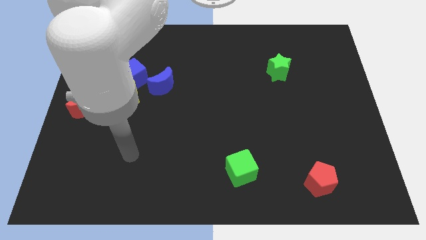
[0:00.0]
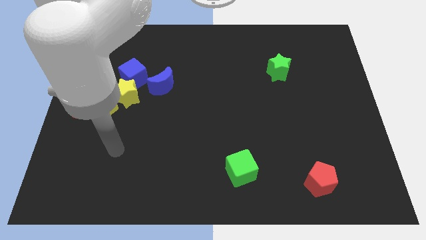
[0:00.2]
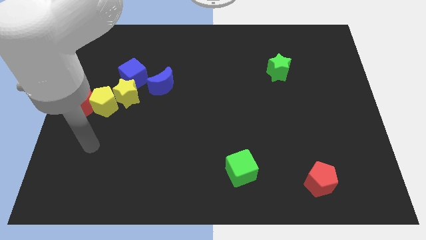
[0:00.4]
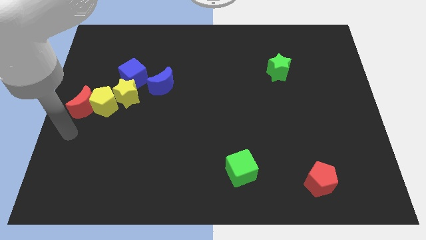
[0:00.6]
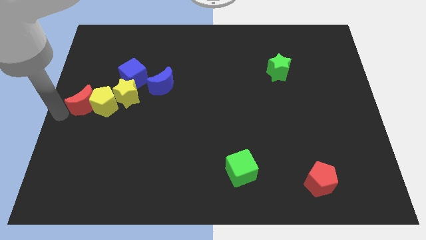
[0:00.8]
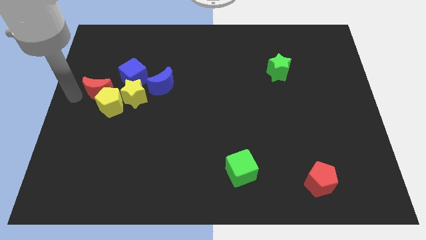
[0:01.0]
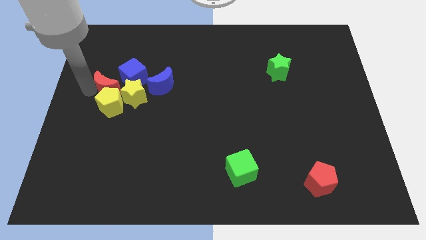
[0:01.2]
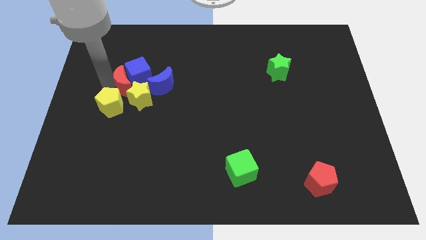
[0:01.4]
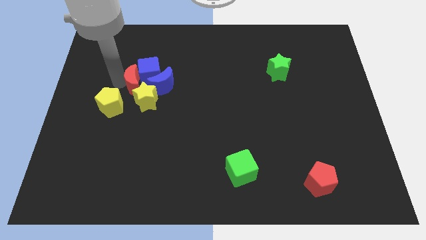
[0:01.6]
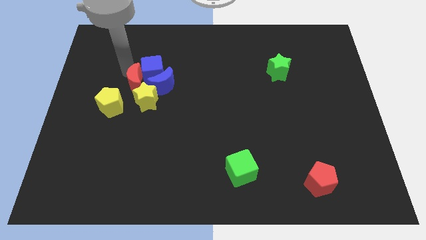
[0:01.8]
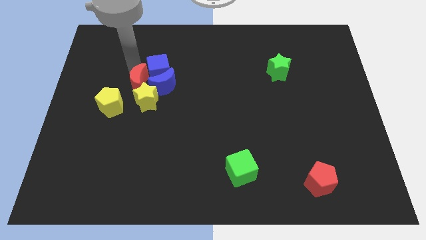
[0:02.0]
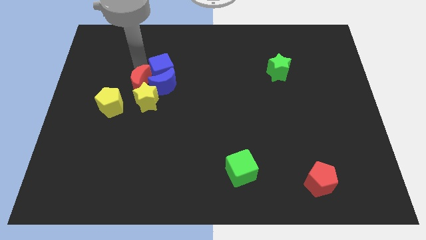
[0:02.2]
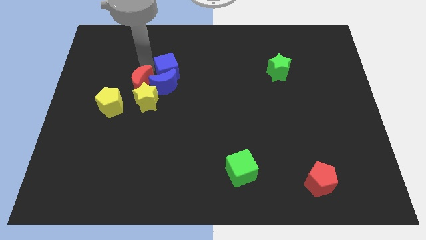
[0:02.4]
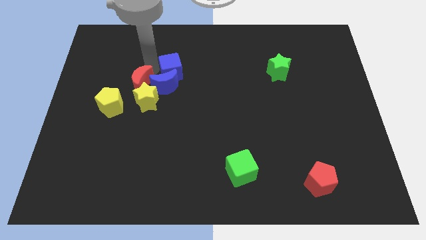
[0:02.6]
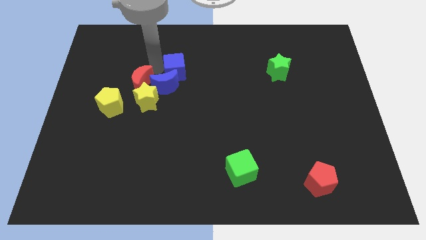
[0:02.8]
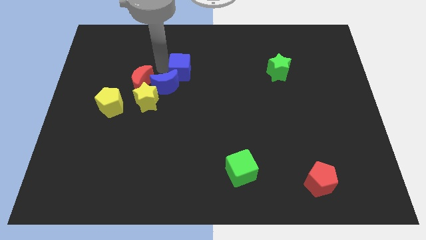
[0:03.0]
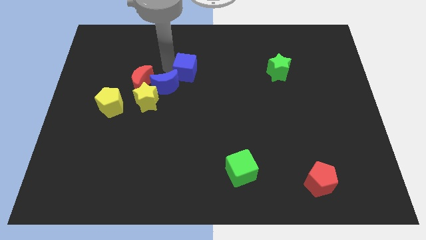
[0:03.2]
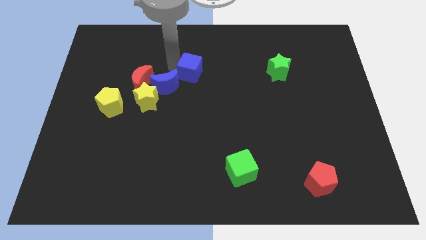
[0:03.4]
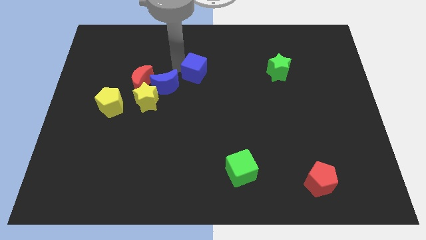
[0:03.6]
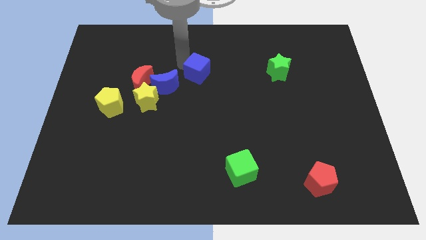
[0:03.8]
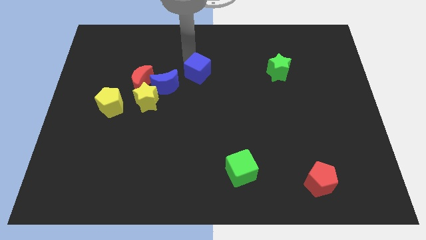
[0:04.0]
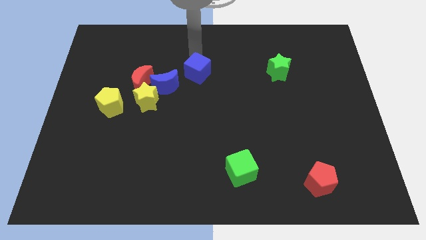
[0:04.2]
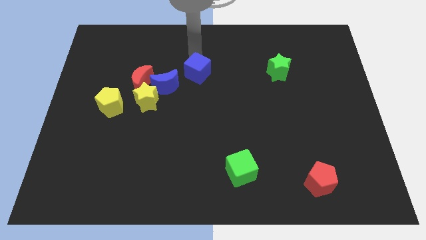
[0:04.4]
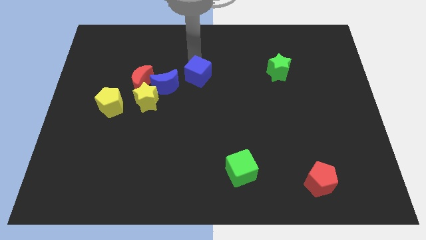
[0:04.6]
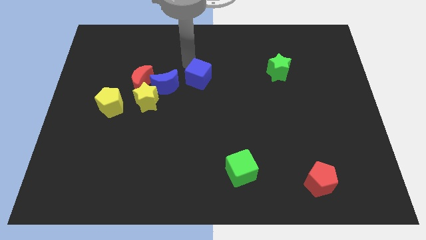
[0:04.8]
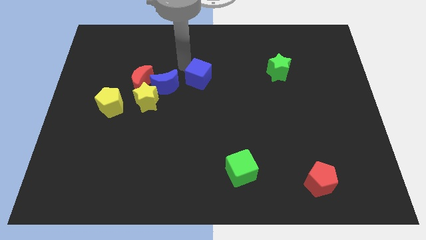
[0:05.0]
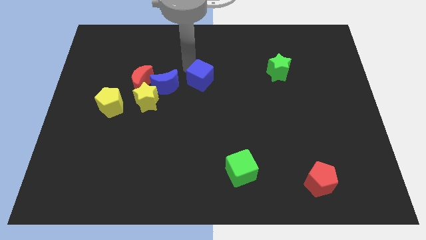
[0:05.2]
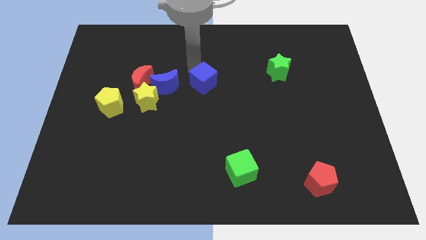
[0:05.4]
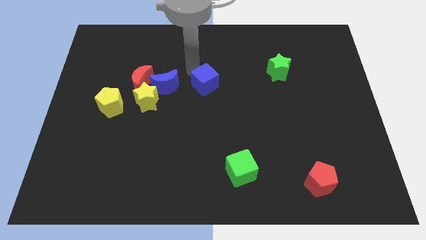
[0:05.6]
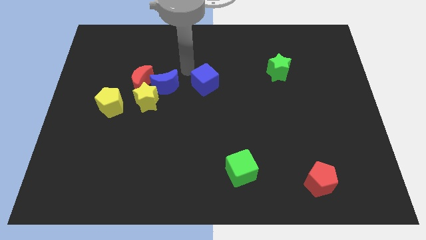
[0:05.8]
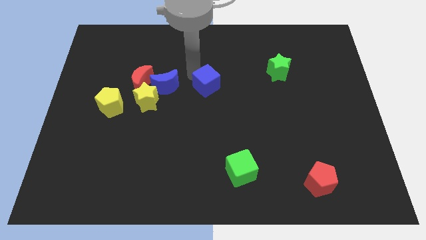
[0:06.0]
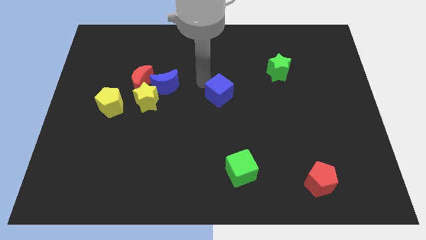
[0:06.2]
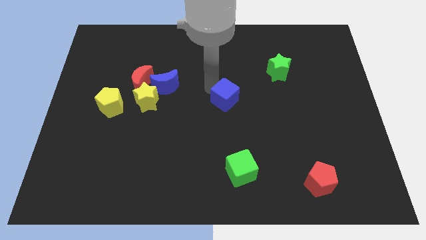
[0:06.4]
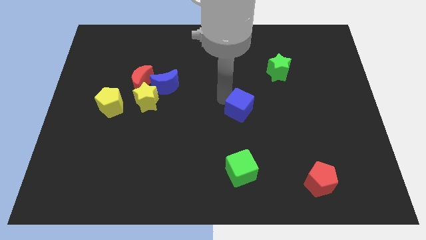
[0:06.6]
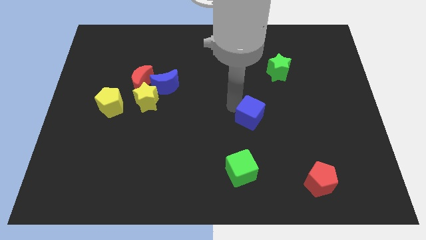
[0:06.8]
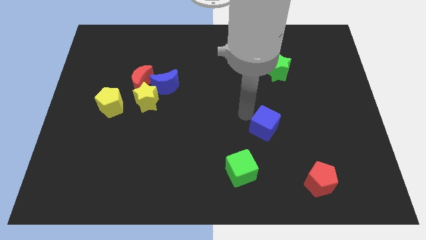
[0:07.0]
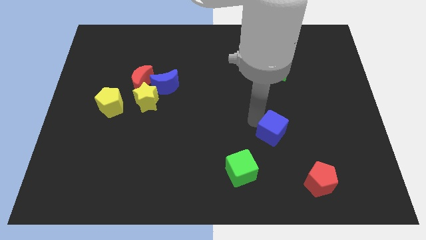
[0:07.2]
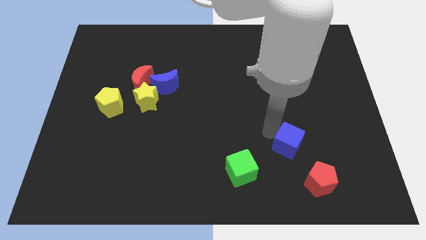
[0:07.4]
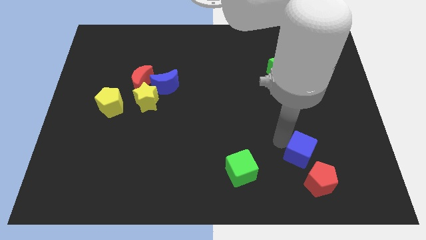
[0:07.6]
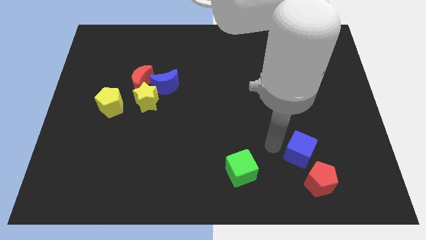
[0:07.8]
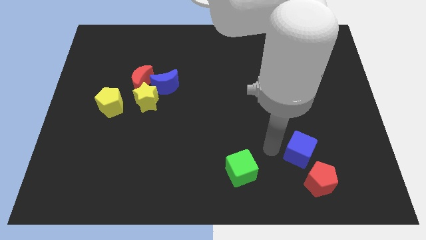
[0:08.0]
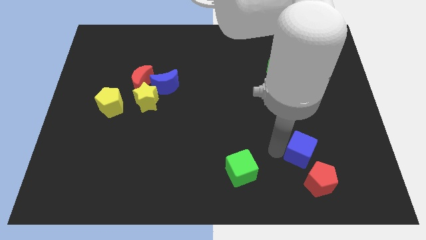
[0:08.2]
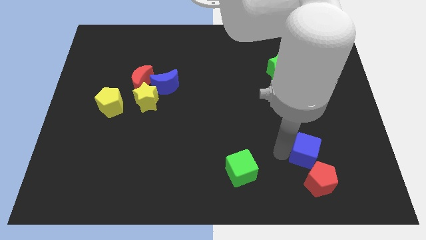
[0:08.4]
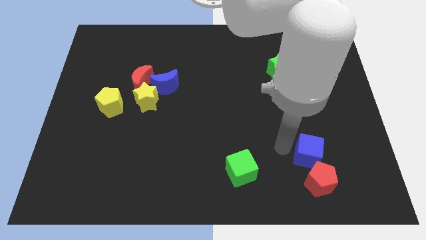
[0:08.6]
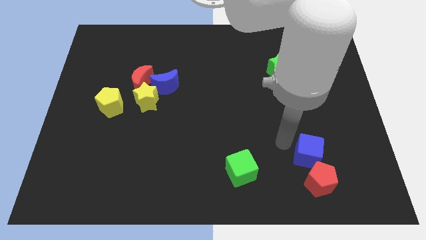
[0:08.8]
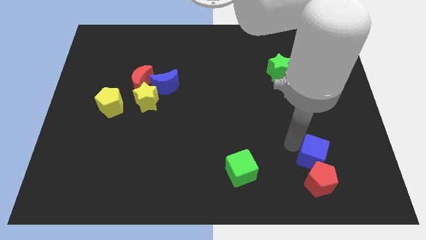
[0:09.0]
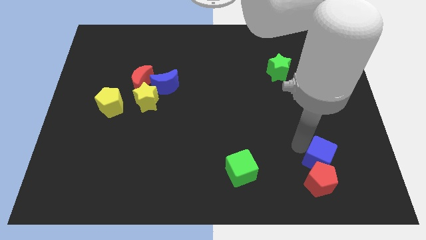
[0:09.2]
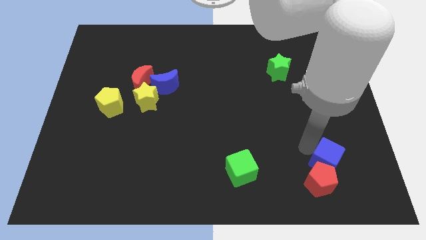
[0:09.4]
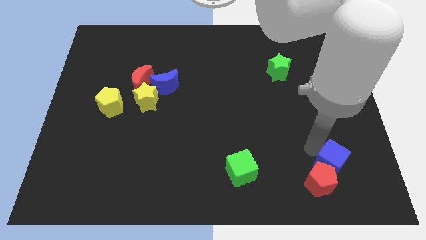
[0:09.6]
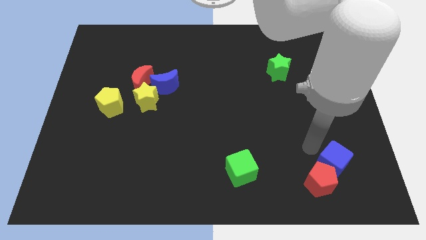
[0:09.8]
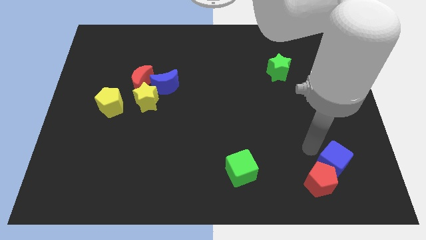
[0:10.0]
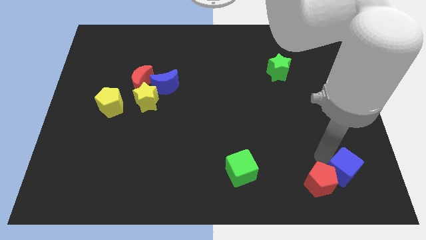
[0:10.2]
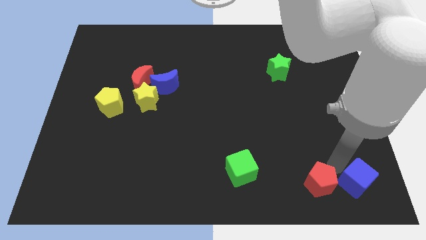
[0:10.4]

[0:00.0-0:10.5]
push the blue cube to the lower right corner
